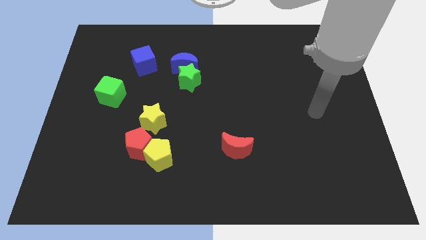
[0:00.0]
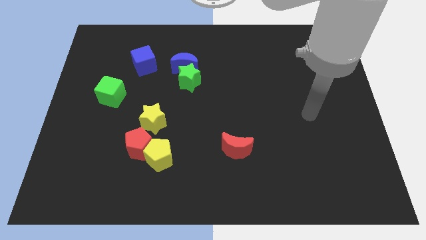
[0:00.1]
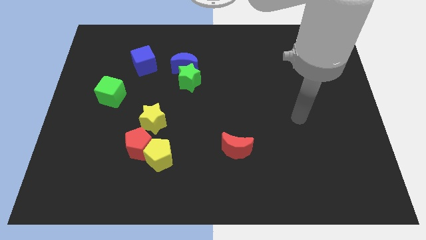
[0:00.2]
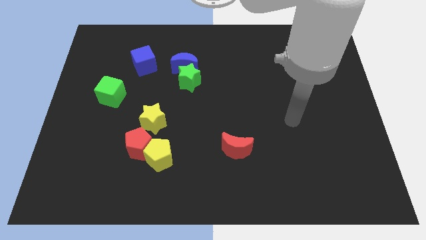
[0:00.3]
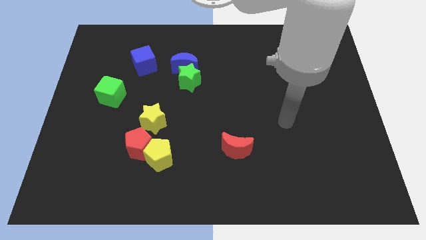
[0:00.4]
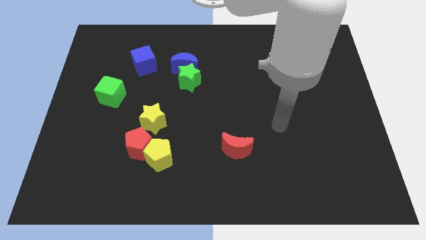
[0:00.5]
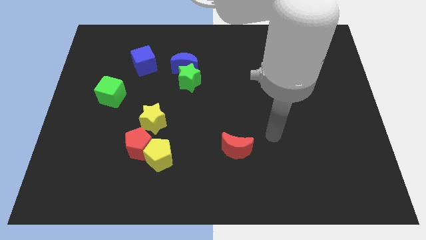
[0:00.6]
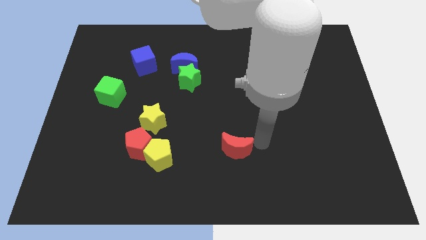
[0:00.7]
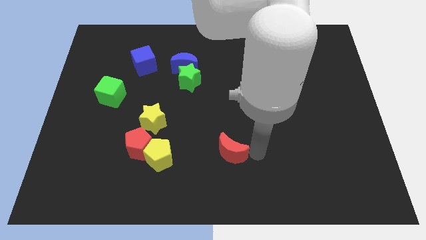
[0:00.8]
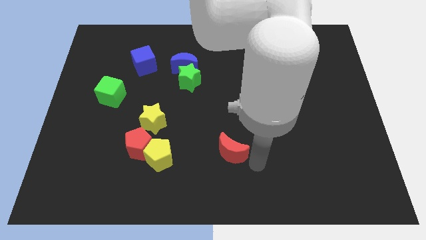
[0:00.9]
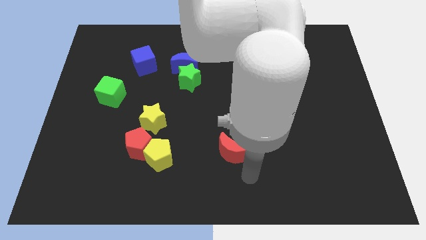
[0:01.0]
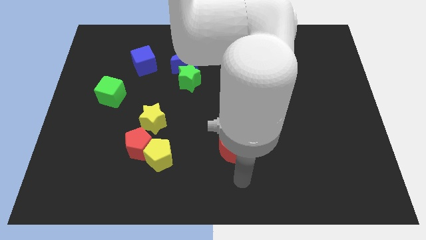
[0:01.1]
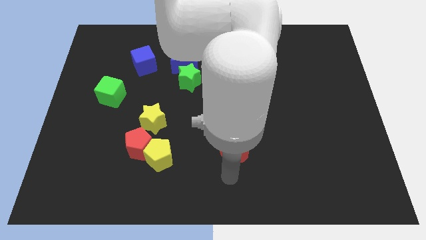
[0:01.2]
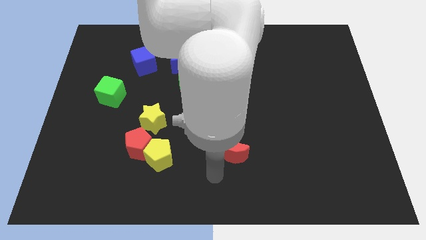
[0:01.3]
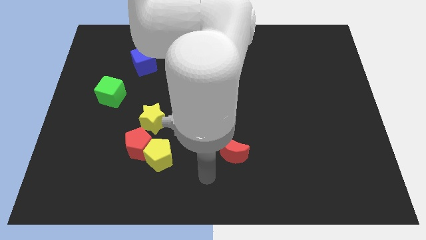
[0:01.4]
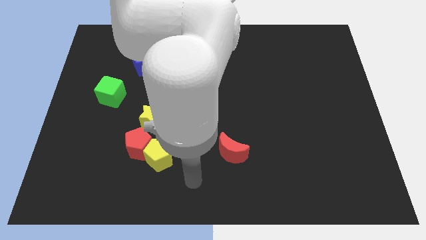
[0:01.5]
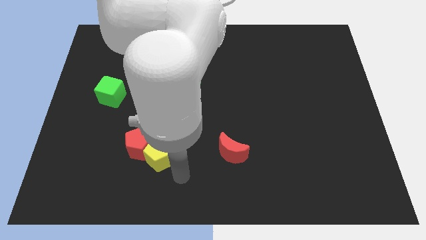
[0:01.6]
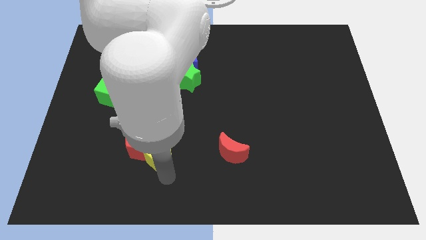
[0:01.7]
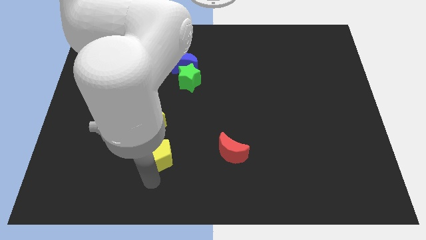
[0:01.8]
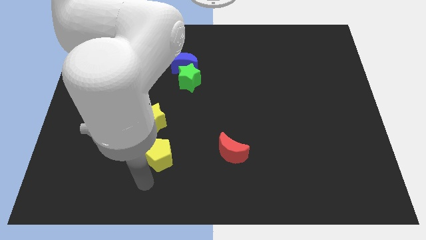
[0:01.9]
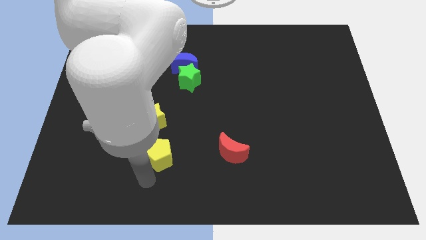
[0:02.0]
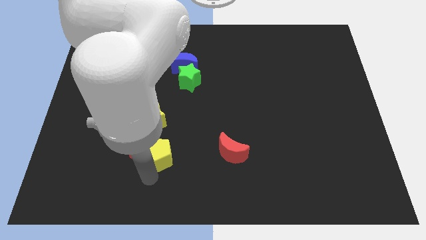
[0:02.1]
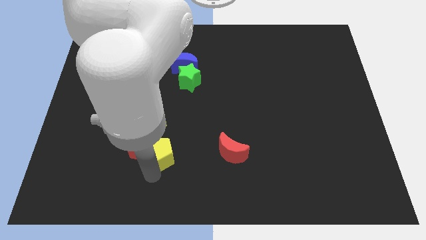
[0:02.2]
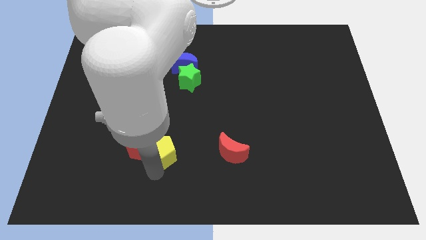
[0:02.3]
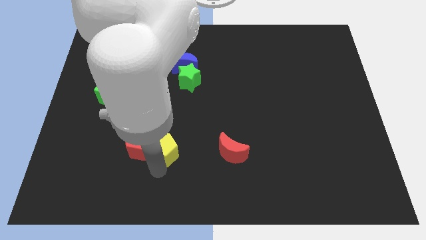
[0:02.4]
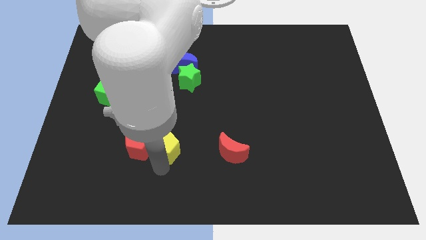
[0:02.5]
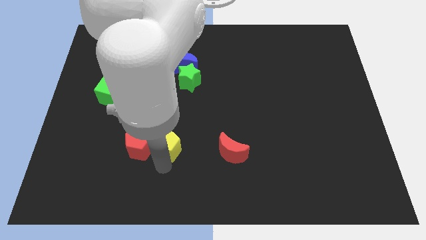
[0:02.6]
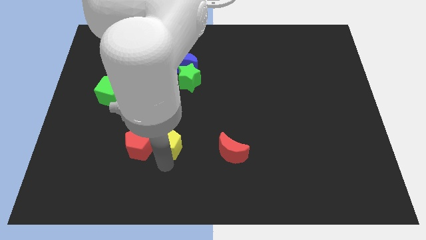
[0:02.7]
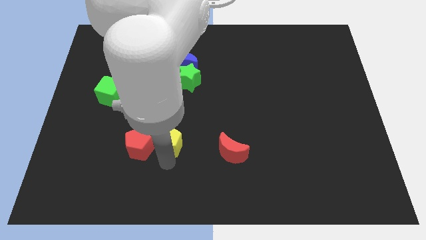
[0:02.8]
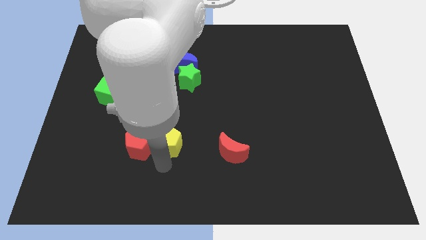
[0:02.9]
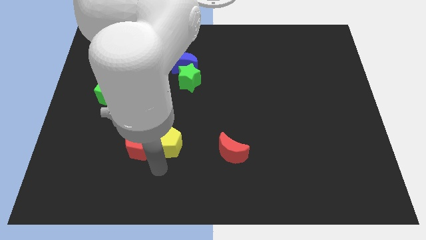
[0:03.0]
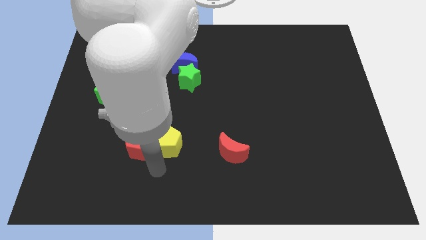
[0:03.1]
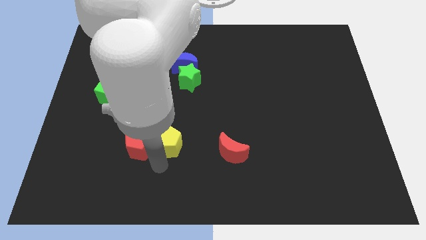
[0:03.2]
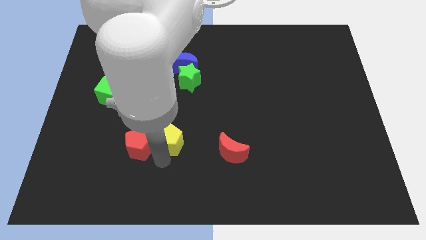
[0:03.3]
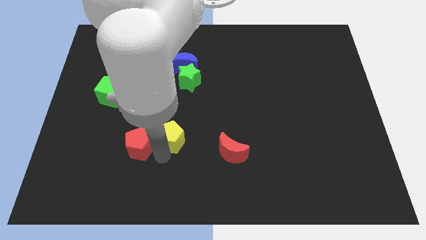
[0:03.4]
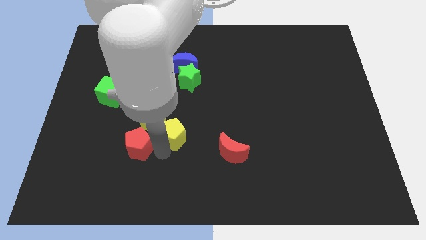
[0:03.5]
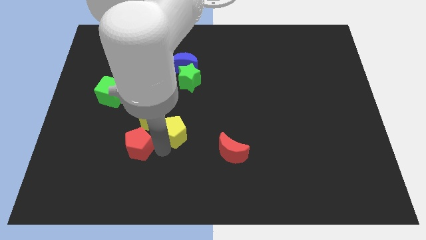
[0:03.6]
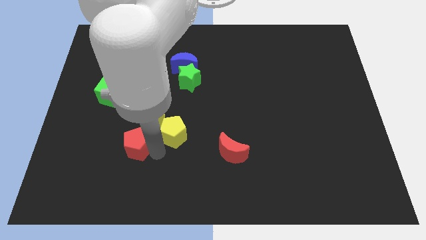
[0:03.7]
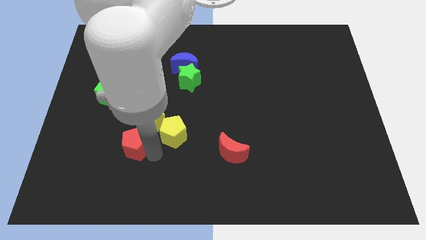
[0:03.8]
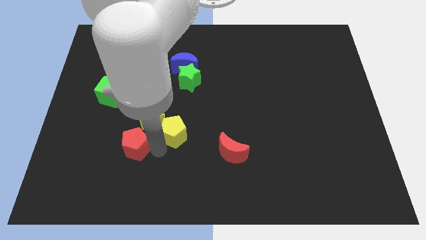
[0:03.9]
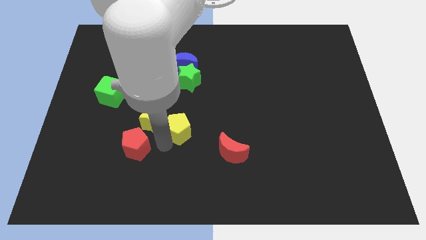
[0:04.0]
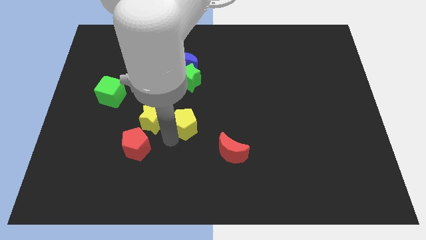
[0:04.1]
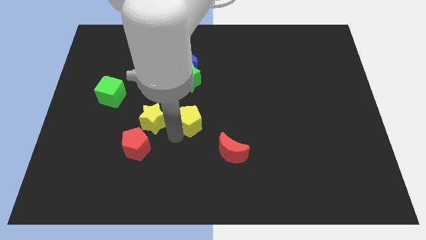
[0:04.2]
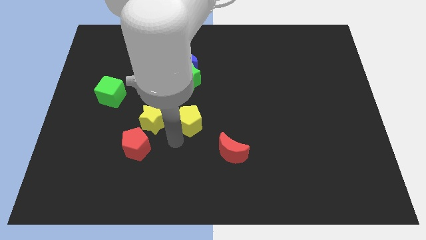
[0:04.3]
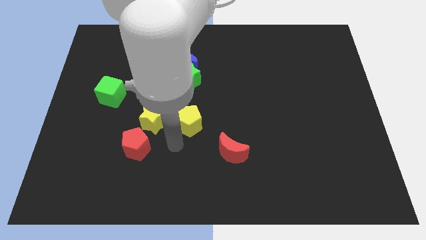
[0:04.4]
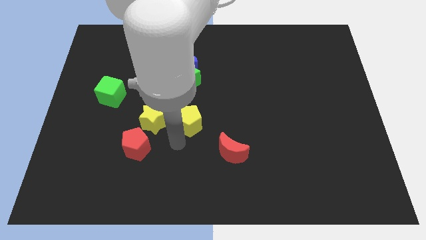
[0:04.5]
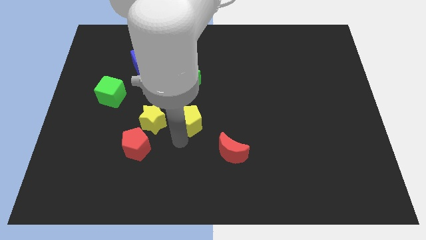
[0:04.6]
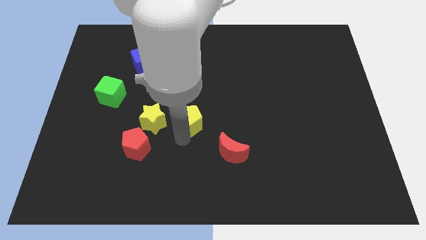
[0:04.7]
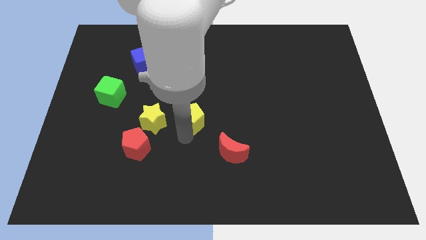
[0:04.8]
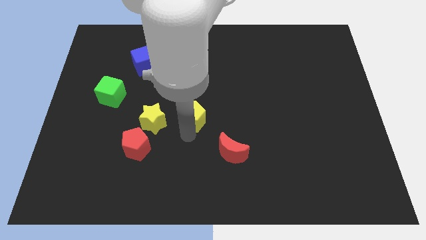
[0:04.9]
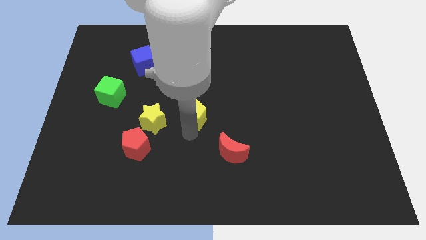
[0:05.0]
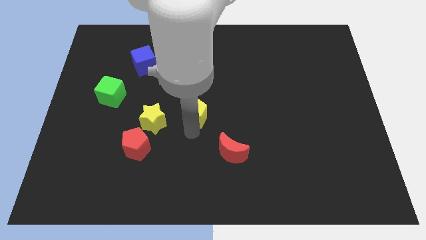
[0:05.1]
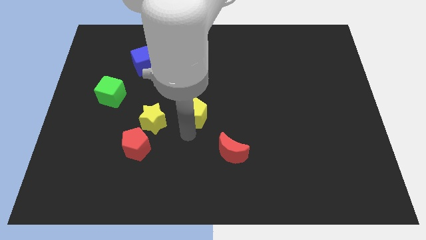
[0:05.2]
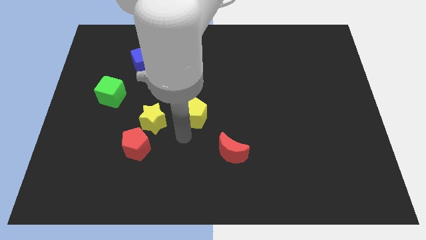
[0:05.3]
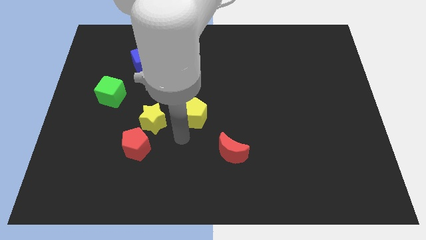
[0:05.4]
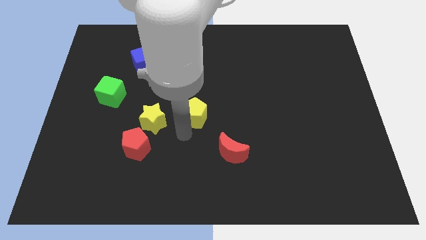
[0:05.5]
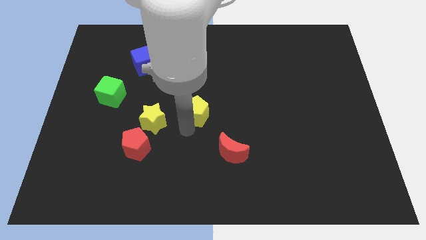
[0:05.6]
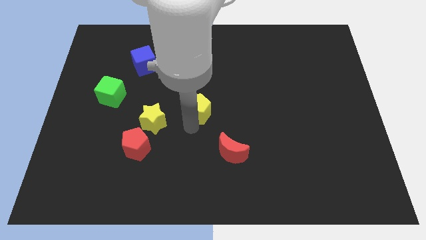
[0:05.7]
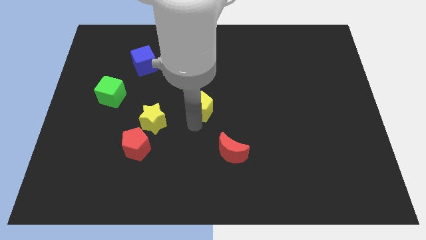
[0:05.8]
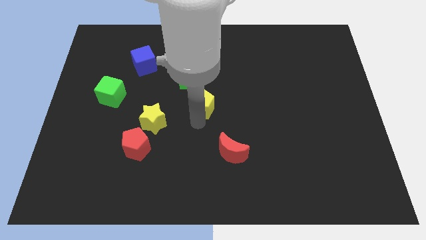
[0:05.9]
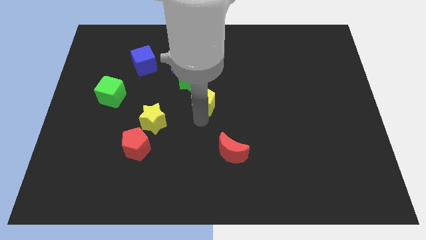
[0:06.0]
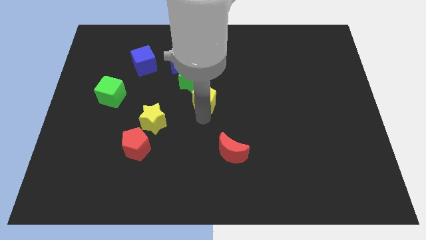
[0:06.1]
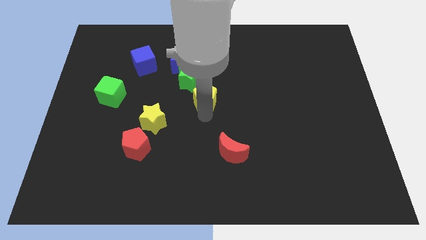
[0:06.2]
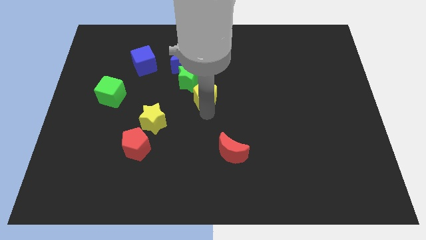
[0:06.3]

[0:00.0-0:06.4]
push the yellow pentagon to the bottom right of the blue moon
